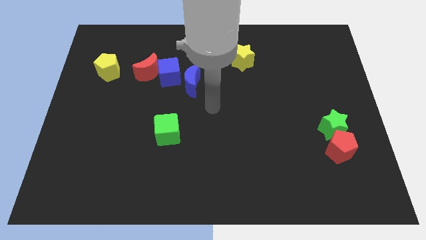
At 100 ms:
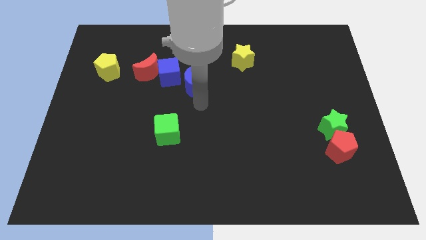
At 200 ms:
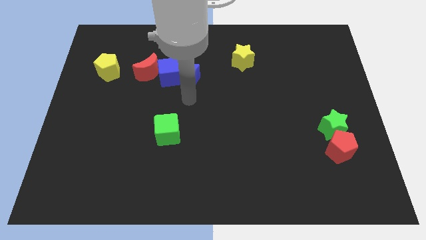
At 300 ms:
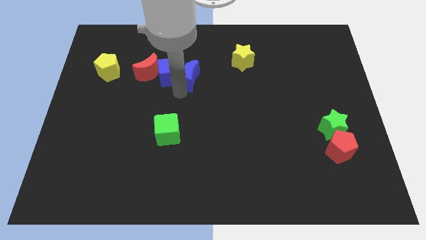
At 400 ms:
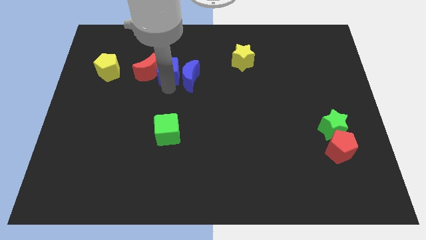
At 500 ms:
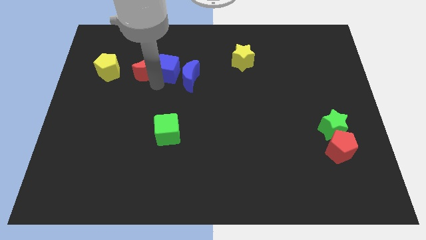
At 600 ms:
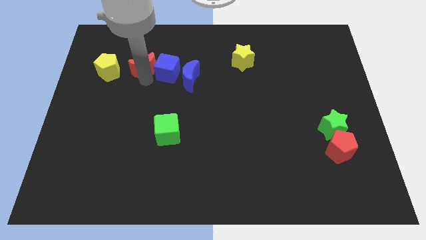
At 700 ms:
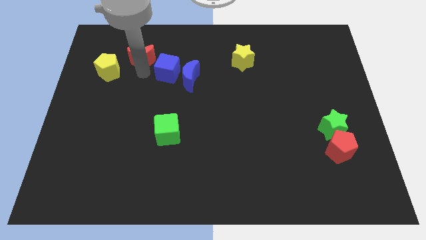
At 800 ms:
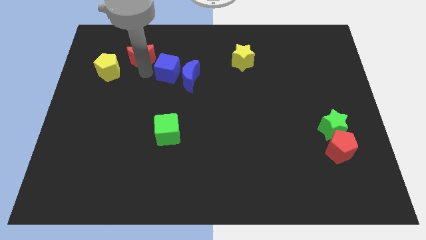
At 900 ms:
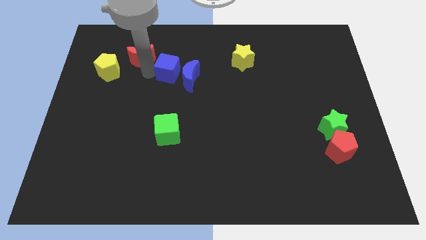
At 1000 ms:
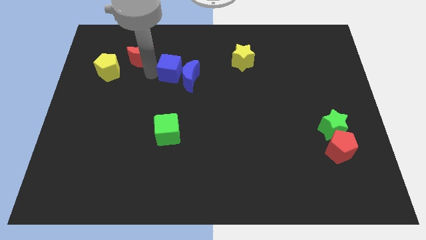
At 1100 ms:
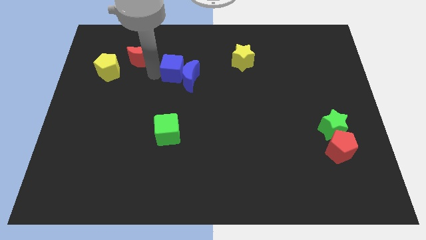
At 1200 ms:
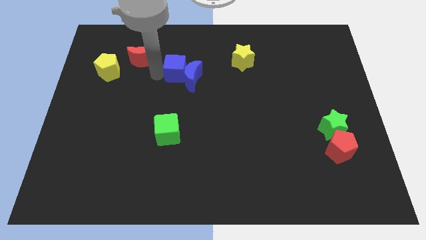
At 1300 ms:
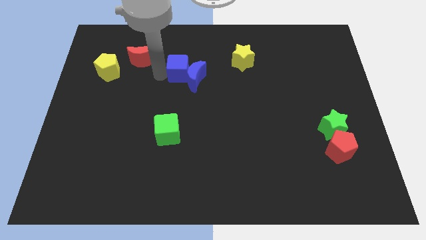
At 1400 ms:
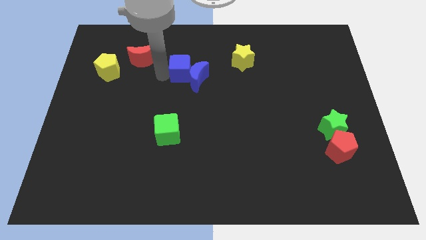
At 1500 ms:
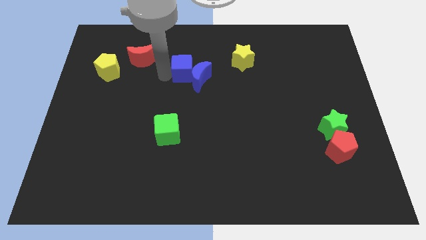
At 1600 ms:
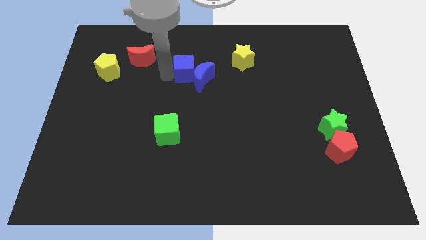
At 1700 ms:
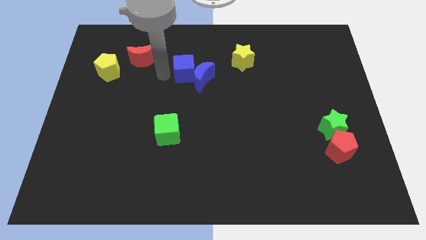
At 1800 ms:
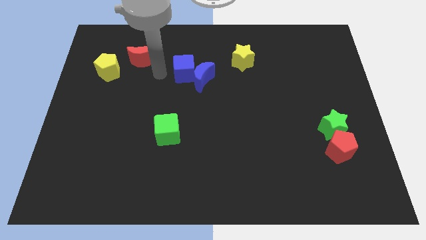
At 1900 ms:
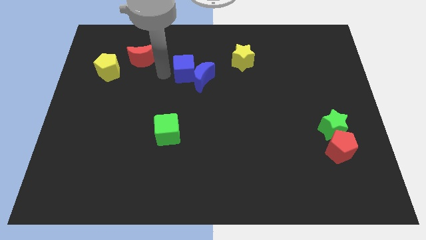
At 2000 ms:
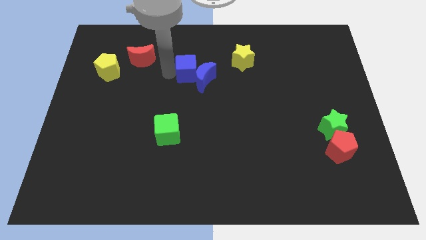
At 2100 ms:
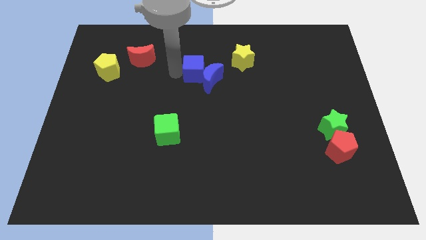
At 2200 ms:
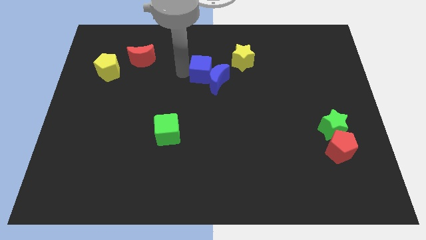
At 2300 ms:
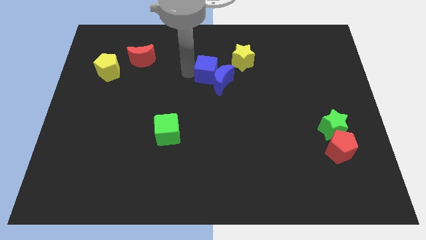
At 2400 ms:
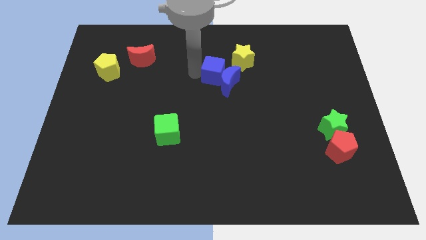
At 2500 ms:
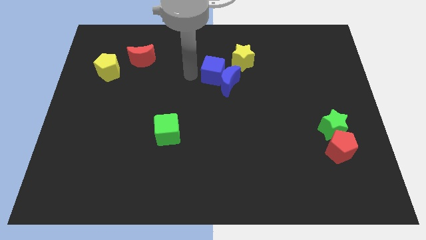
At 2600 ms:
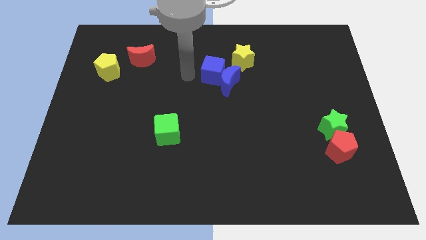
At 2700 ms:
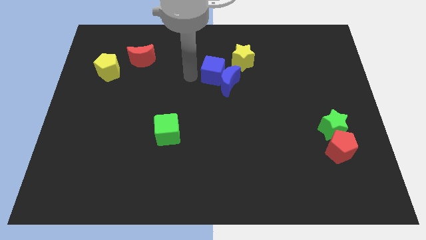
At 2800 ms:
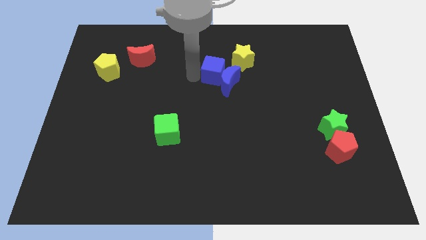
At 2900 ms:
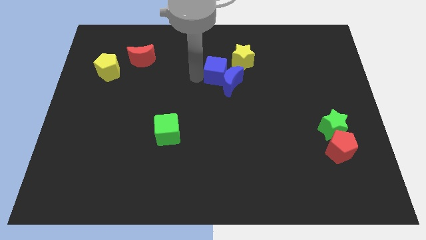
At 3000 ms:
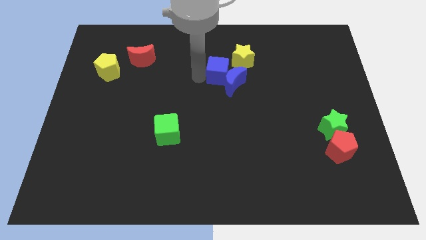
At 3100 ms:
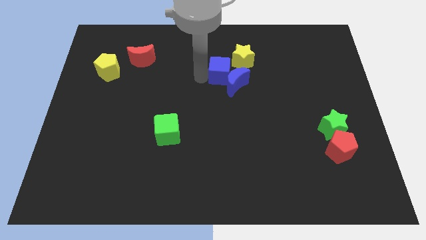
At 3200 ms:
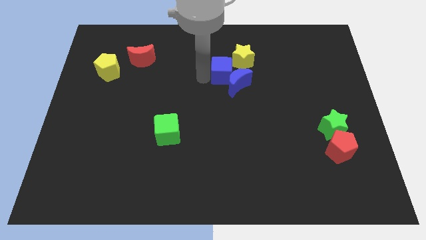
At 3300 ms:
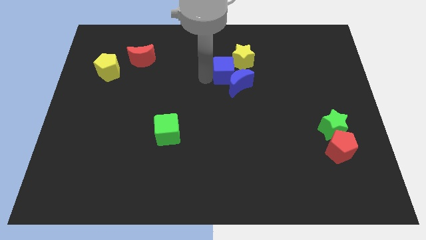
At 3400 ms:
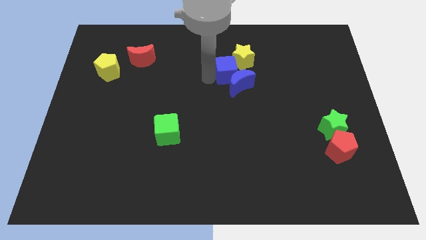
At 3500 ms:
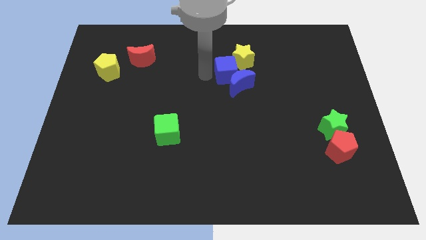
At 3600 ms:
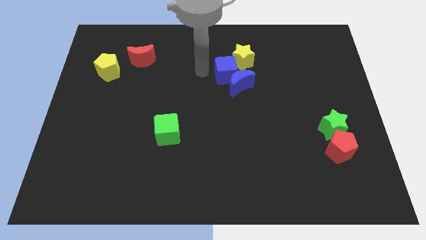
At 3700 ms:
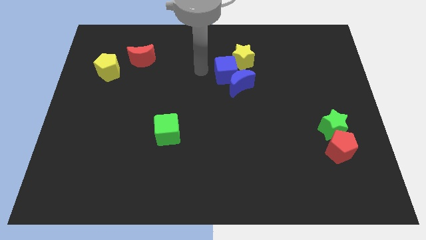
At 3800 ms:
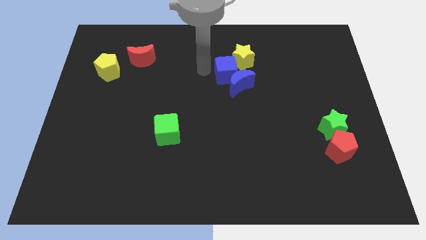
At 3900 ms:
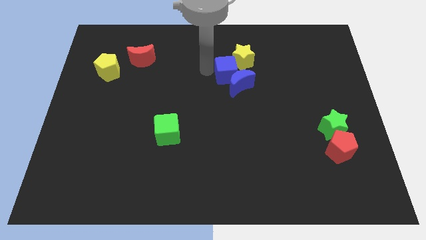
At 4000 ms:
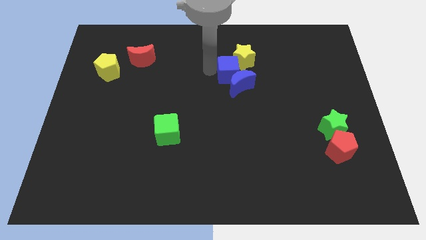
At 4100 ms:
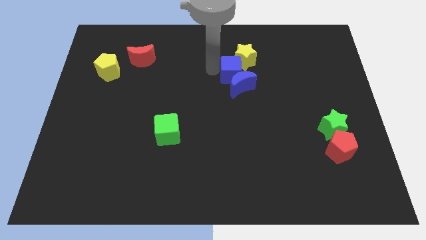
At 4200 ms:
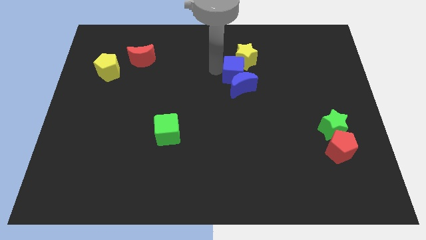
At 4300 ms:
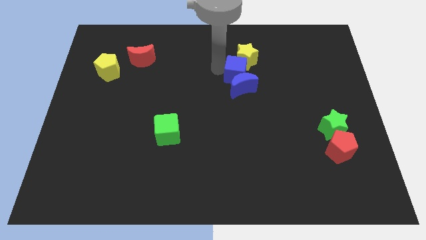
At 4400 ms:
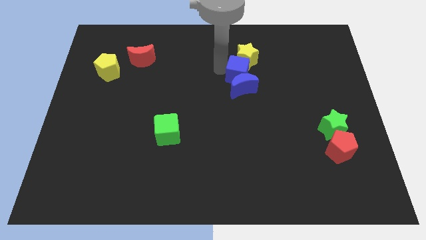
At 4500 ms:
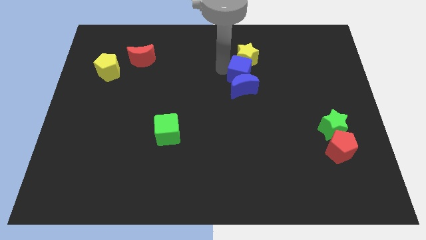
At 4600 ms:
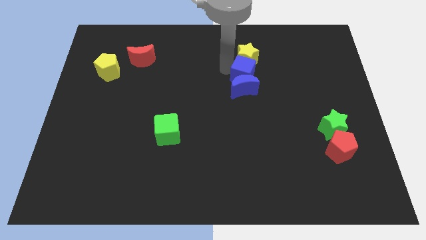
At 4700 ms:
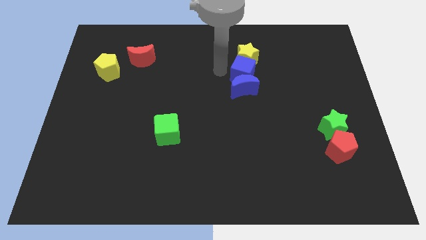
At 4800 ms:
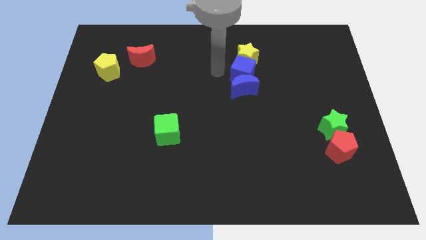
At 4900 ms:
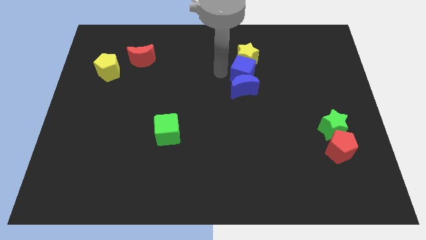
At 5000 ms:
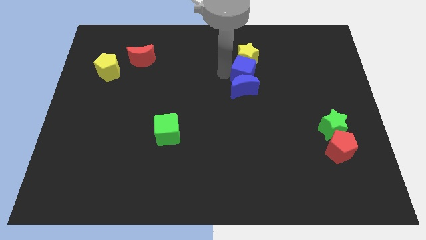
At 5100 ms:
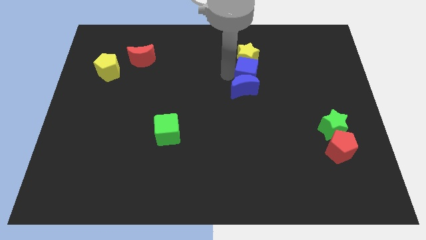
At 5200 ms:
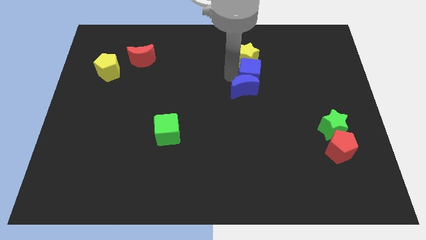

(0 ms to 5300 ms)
slide the blue cube to the right

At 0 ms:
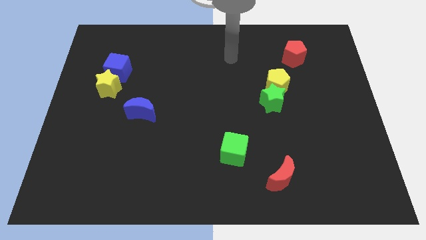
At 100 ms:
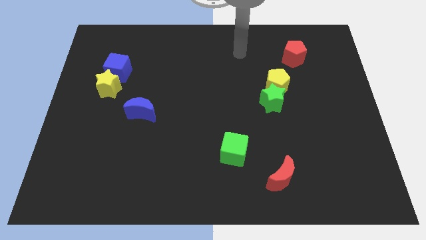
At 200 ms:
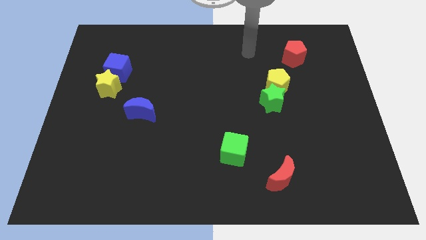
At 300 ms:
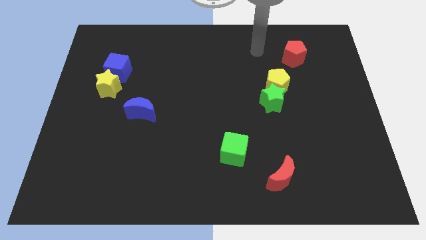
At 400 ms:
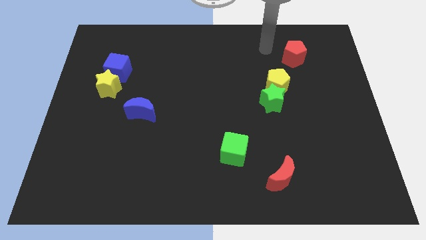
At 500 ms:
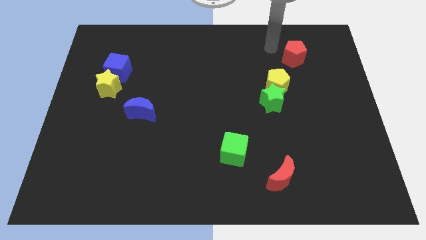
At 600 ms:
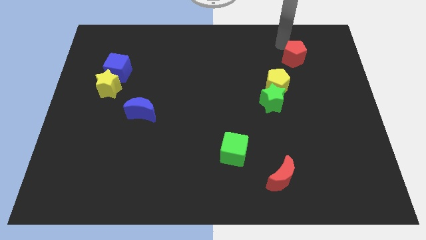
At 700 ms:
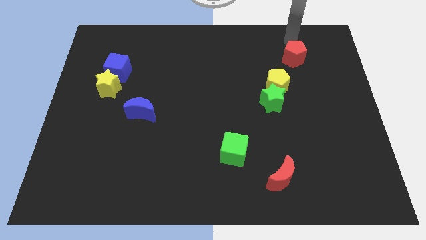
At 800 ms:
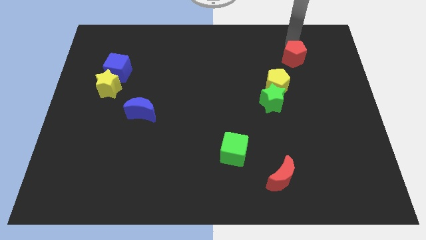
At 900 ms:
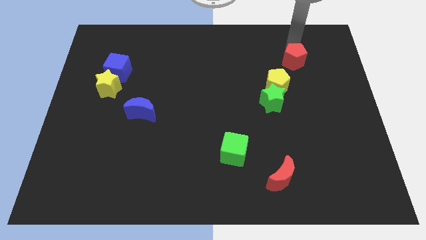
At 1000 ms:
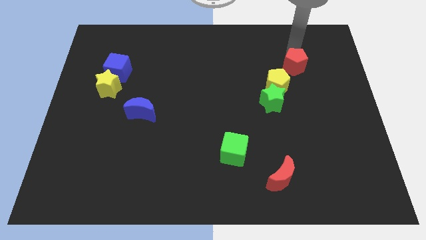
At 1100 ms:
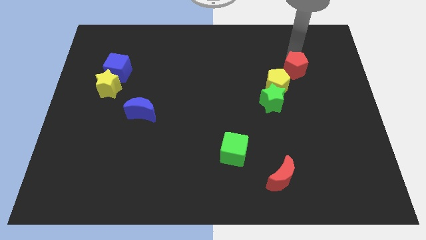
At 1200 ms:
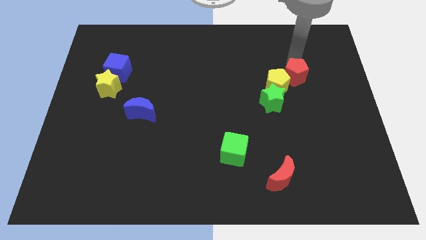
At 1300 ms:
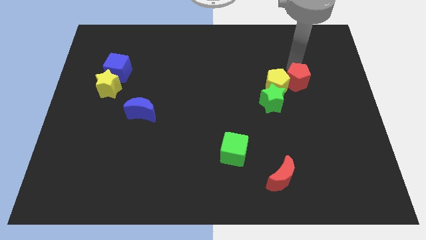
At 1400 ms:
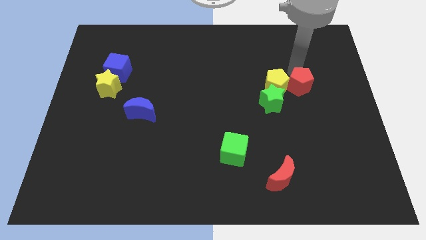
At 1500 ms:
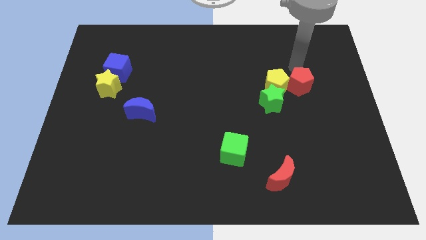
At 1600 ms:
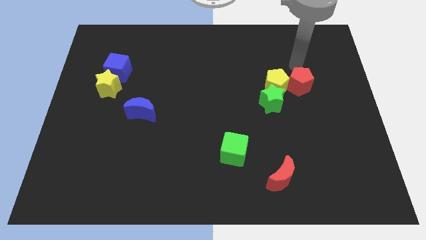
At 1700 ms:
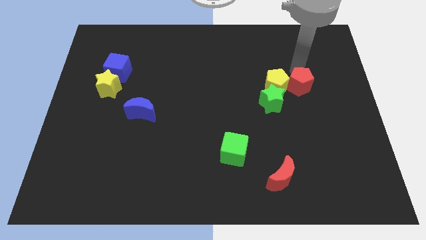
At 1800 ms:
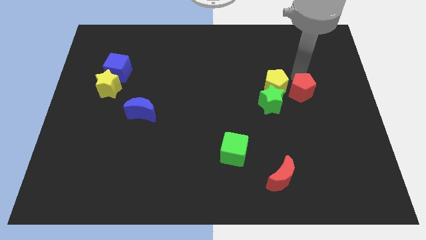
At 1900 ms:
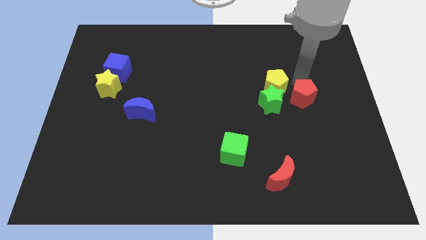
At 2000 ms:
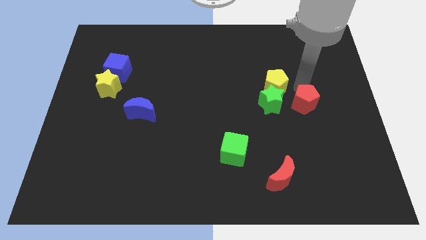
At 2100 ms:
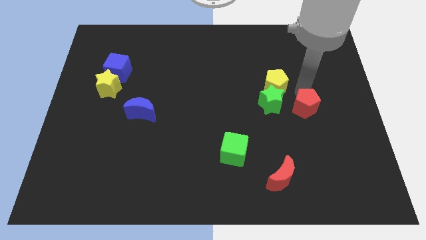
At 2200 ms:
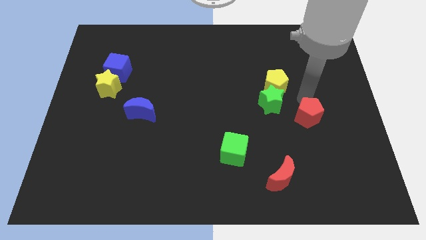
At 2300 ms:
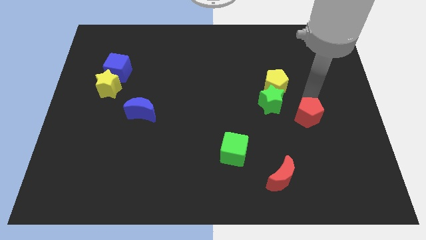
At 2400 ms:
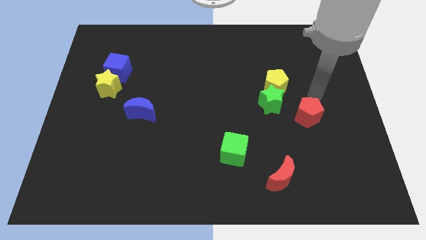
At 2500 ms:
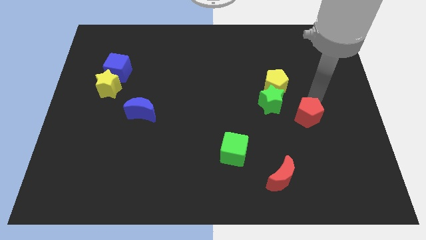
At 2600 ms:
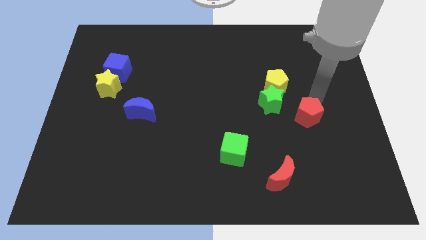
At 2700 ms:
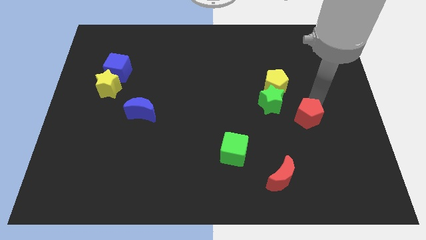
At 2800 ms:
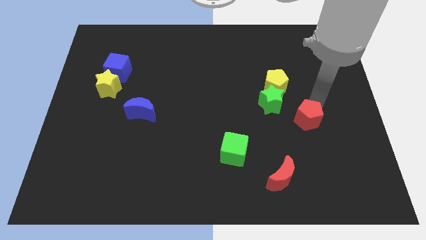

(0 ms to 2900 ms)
push the red pentagon downwards
